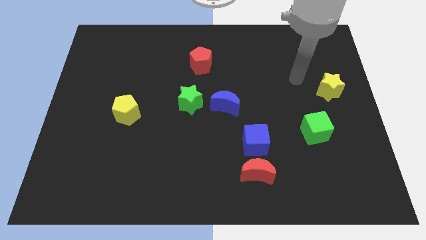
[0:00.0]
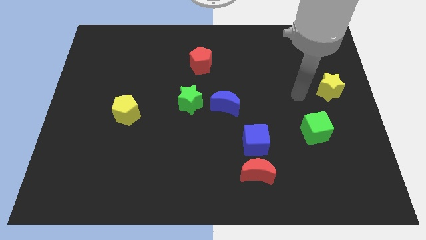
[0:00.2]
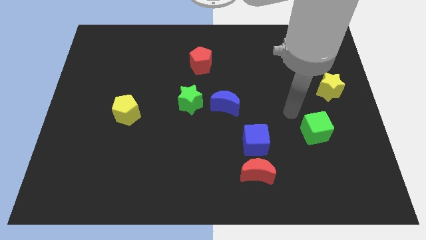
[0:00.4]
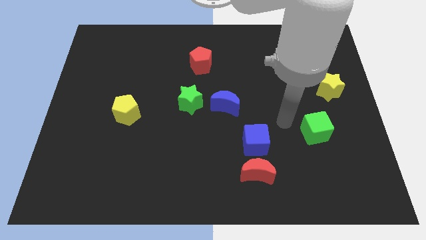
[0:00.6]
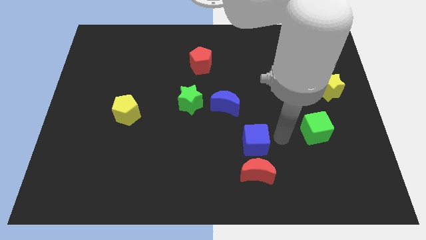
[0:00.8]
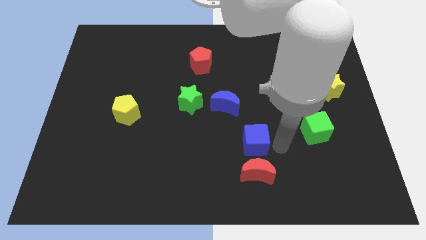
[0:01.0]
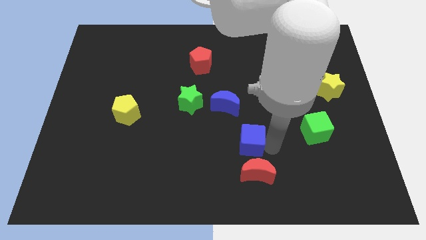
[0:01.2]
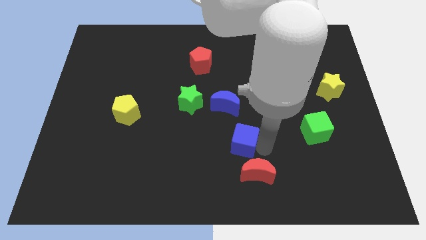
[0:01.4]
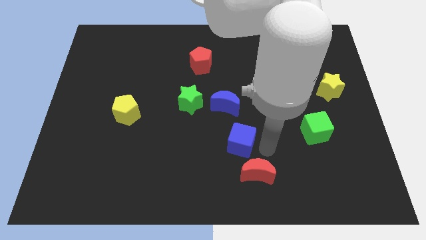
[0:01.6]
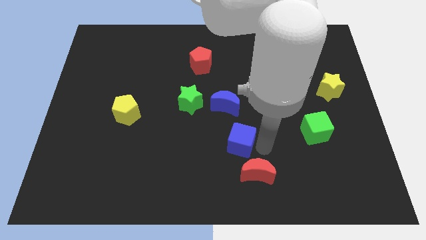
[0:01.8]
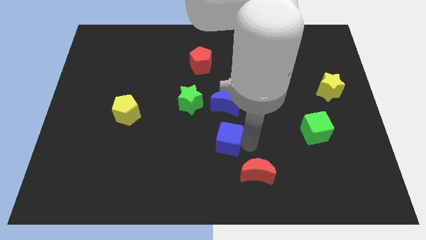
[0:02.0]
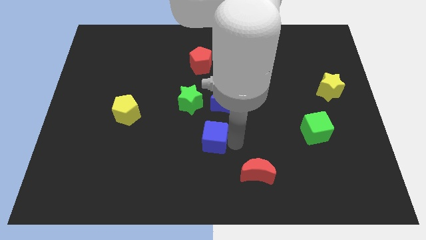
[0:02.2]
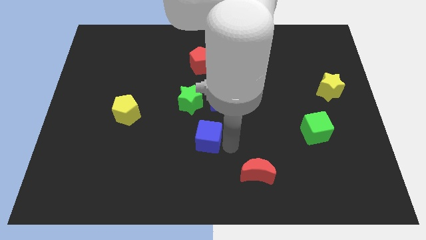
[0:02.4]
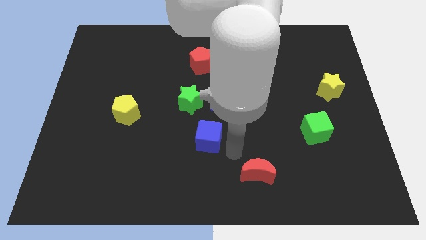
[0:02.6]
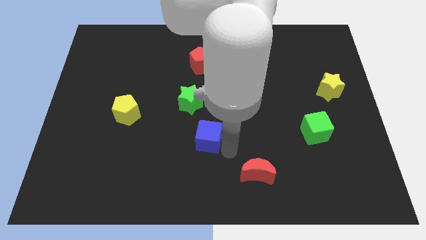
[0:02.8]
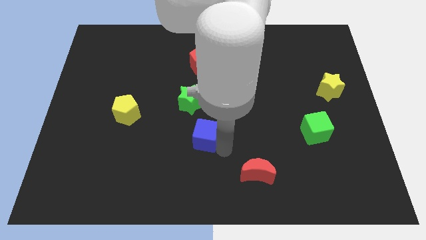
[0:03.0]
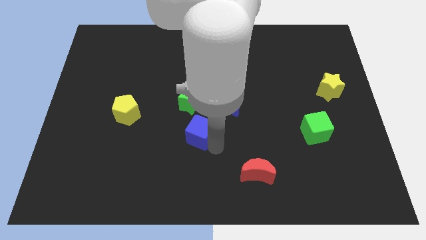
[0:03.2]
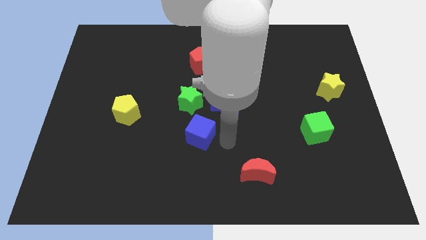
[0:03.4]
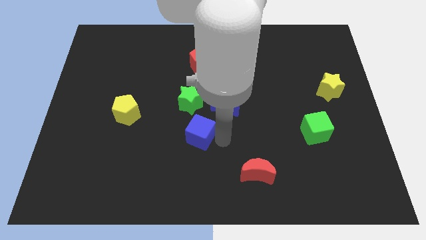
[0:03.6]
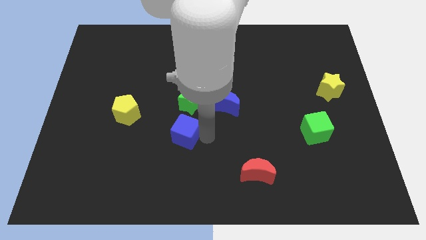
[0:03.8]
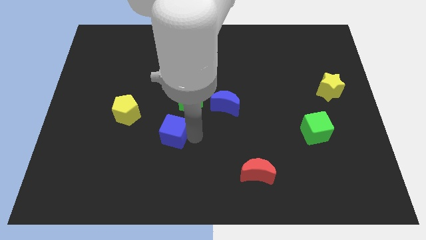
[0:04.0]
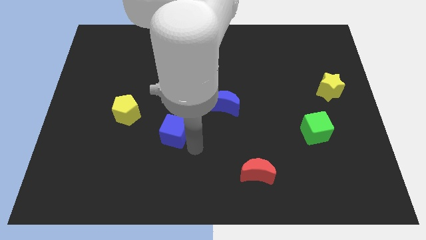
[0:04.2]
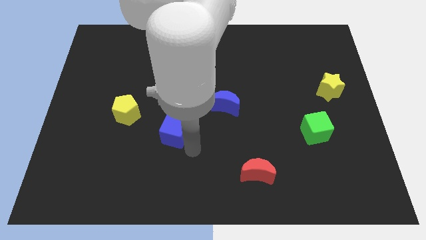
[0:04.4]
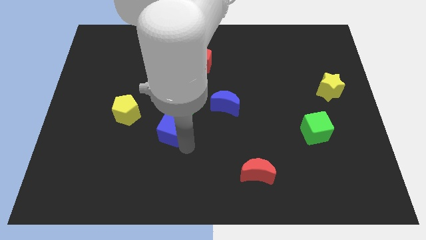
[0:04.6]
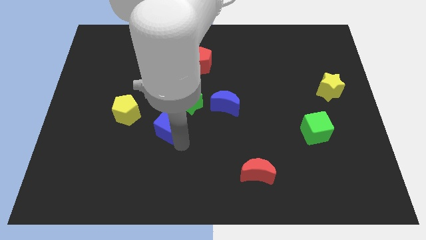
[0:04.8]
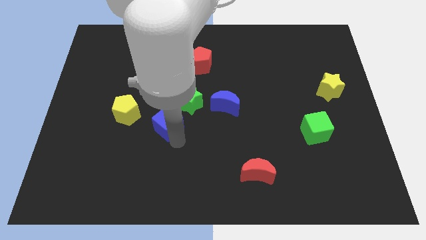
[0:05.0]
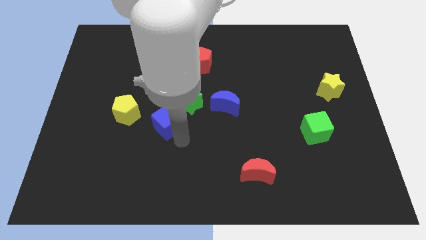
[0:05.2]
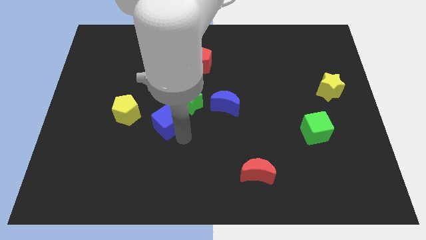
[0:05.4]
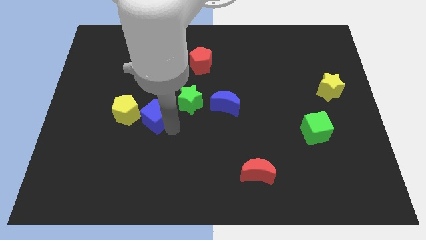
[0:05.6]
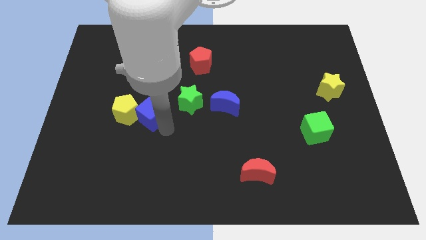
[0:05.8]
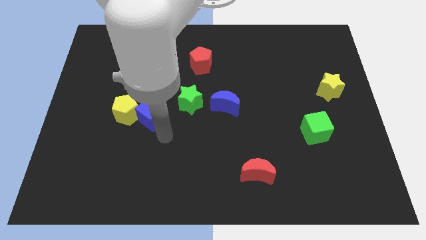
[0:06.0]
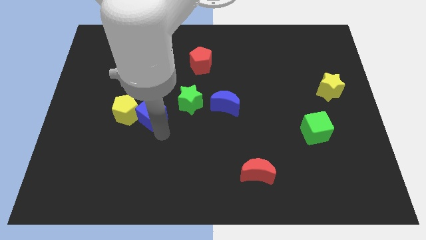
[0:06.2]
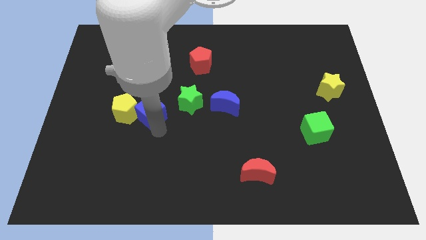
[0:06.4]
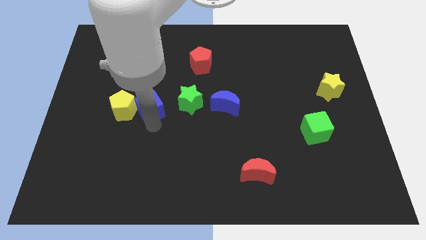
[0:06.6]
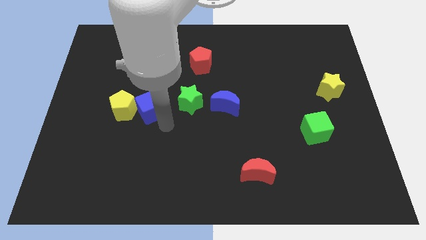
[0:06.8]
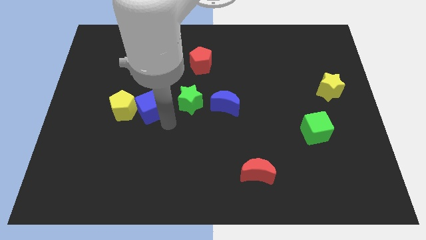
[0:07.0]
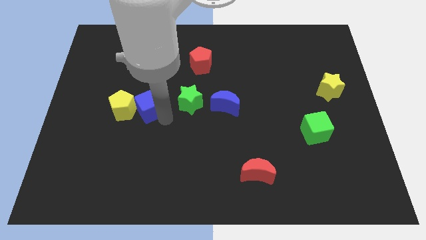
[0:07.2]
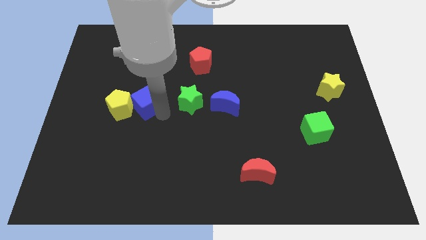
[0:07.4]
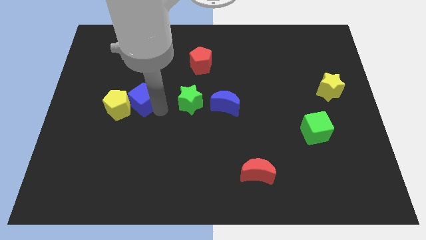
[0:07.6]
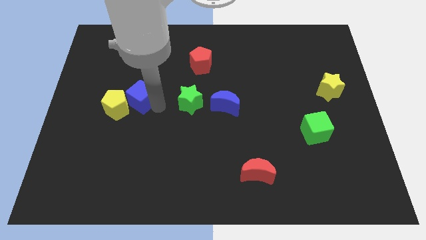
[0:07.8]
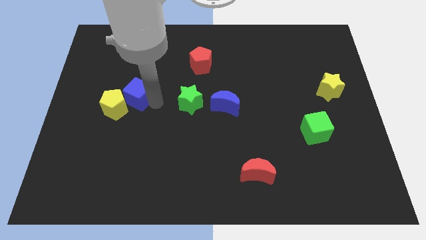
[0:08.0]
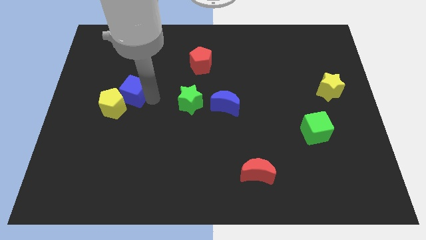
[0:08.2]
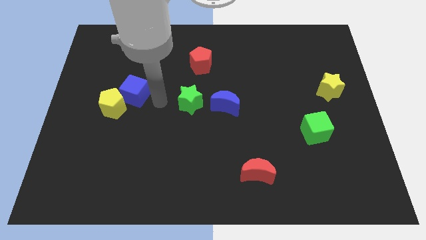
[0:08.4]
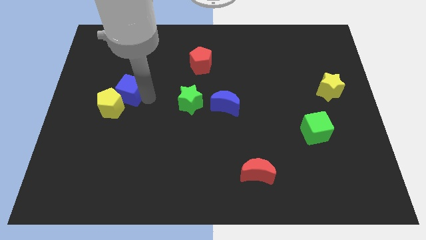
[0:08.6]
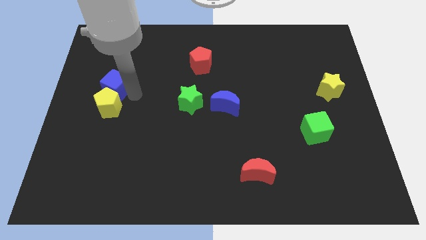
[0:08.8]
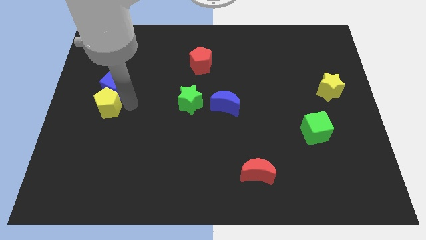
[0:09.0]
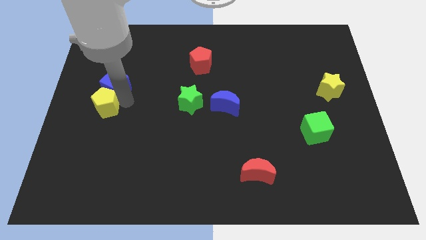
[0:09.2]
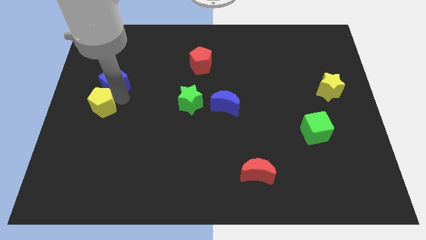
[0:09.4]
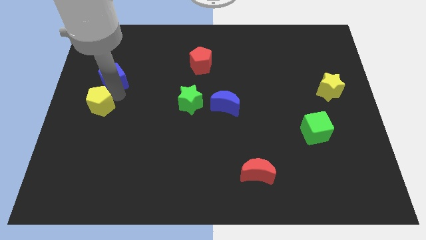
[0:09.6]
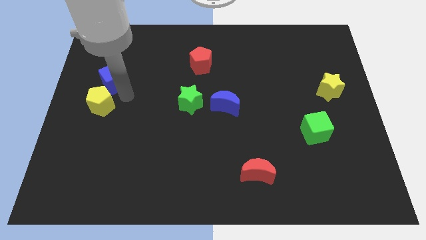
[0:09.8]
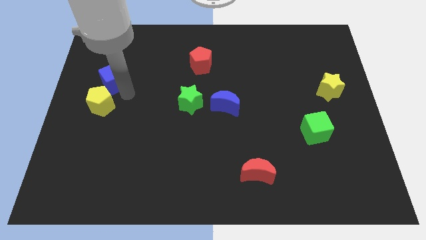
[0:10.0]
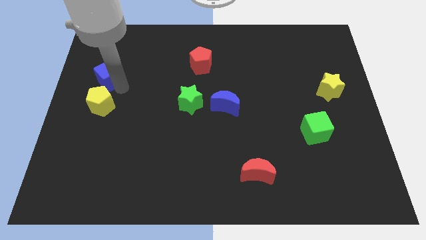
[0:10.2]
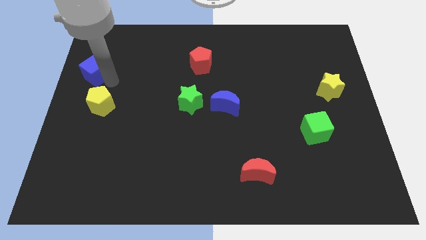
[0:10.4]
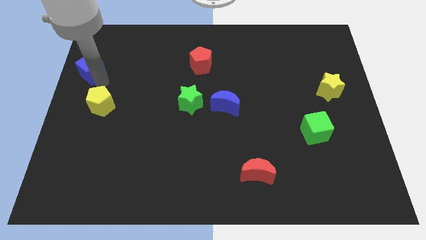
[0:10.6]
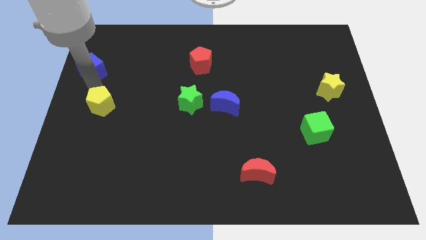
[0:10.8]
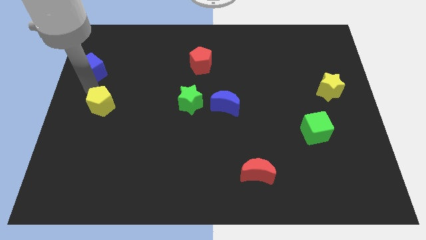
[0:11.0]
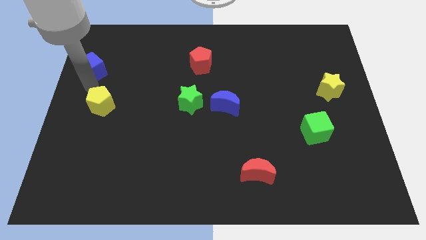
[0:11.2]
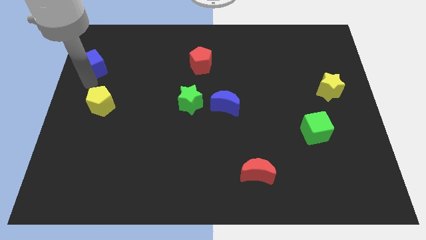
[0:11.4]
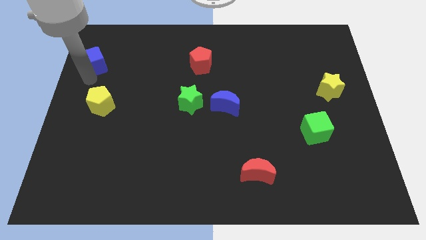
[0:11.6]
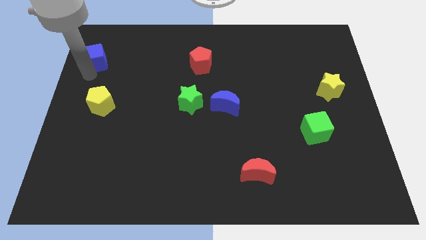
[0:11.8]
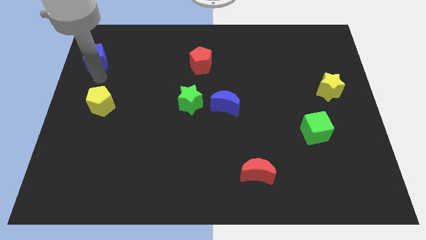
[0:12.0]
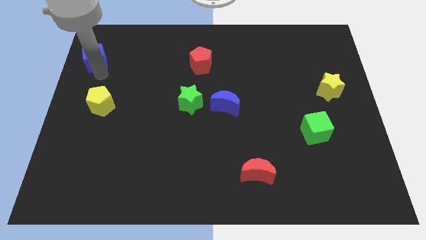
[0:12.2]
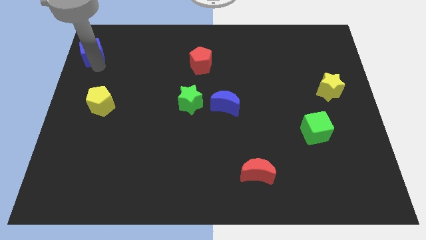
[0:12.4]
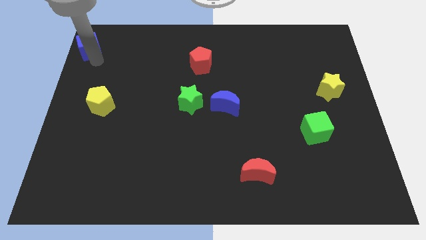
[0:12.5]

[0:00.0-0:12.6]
slide the blue cube to the top left

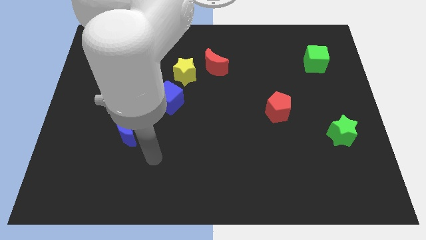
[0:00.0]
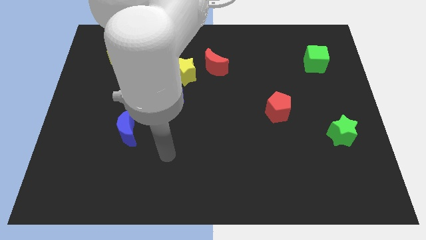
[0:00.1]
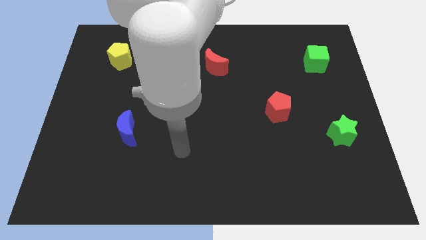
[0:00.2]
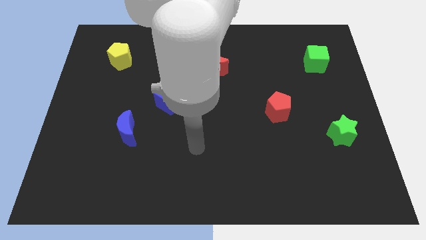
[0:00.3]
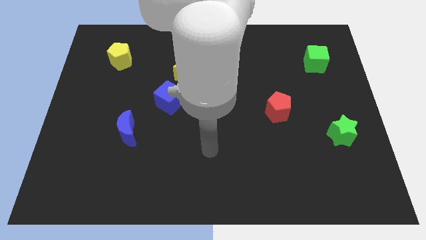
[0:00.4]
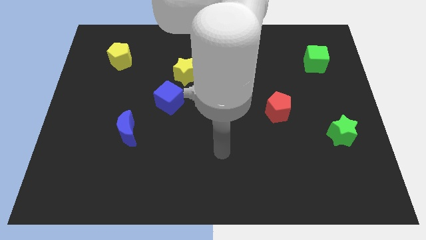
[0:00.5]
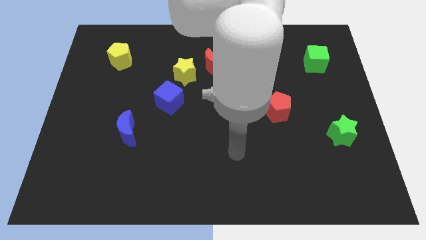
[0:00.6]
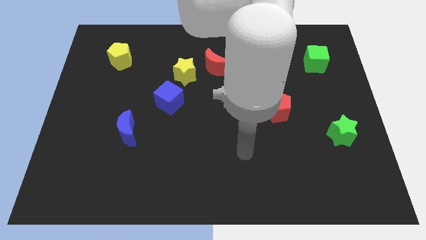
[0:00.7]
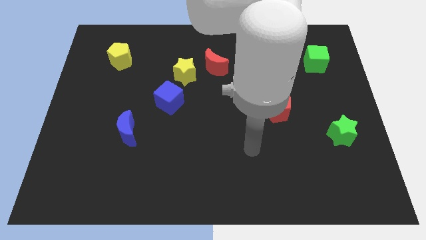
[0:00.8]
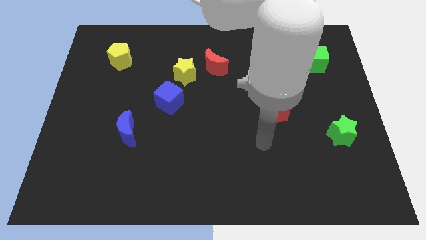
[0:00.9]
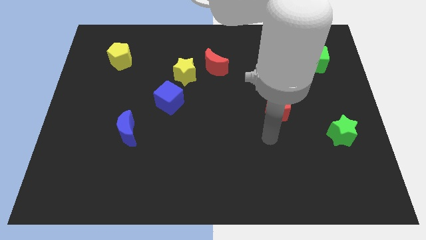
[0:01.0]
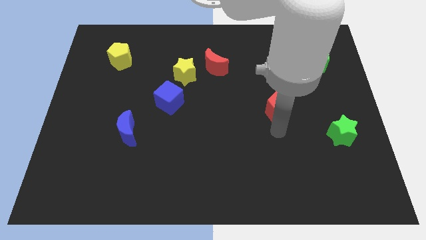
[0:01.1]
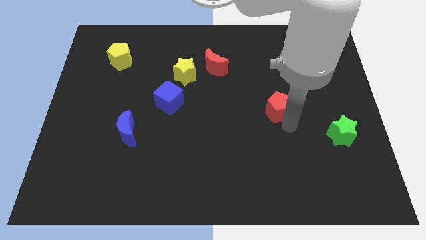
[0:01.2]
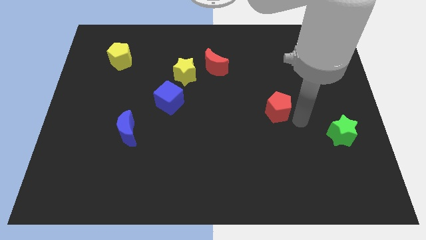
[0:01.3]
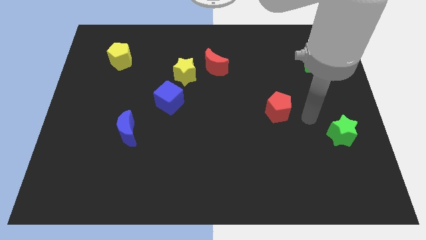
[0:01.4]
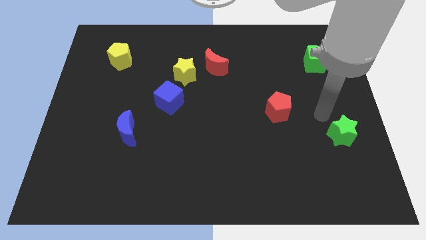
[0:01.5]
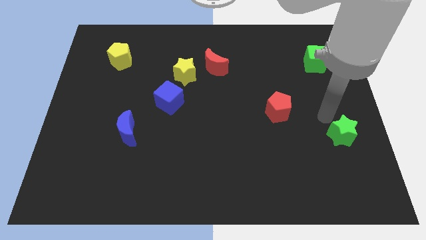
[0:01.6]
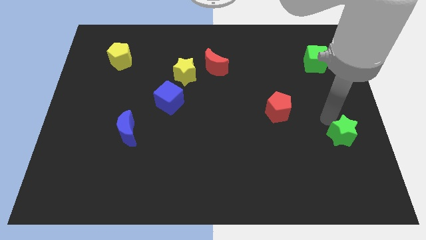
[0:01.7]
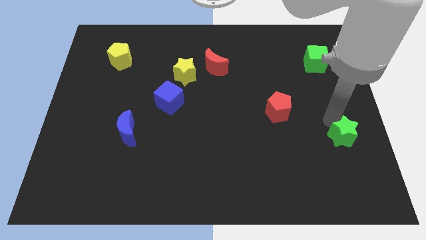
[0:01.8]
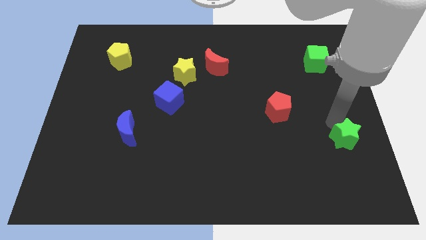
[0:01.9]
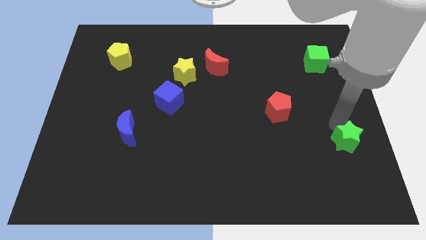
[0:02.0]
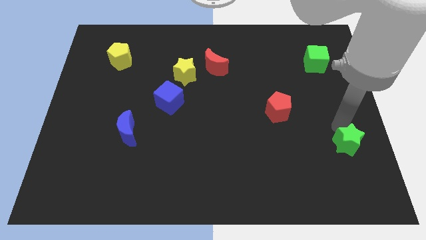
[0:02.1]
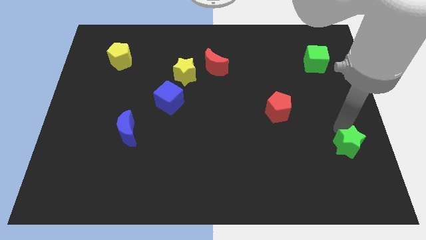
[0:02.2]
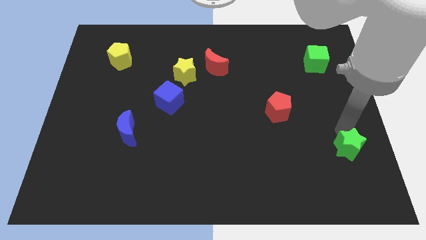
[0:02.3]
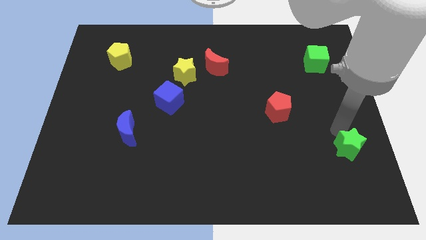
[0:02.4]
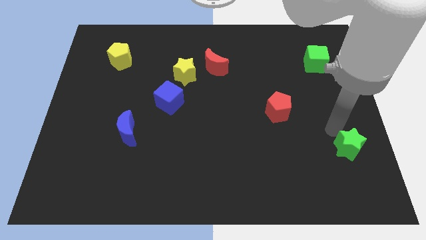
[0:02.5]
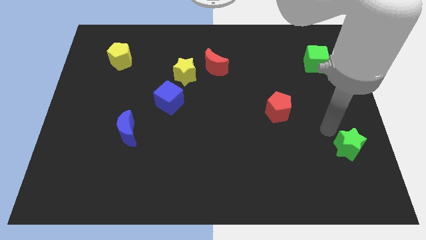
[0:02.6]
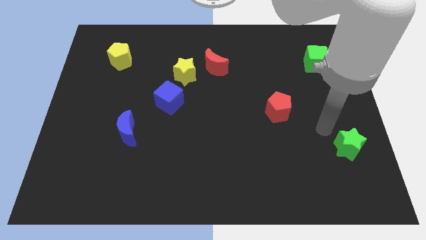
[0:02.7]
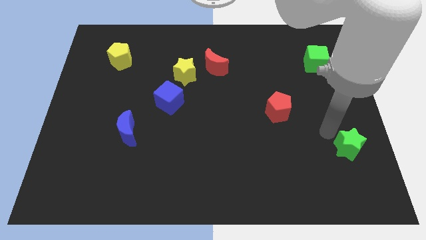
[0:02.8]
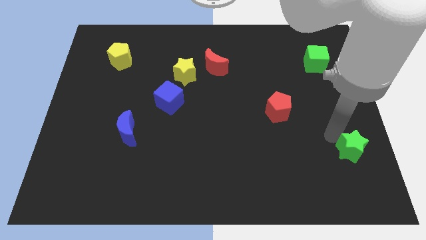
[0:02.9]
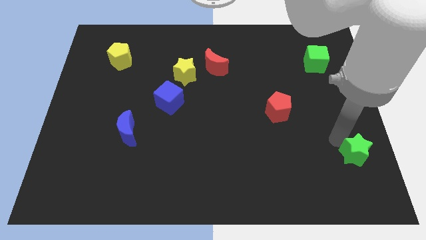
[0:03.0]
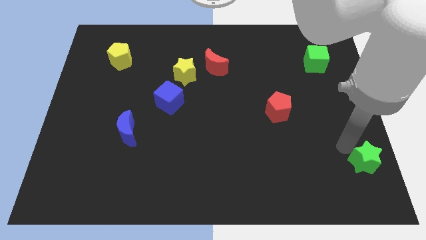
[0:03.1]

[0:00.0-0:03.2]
push the green star to the bottom right corner
